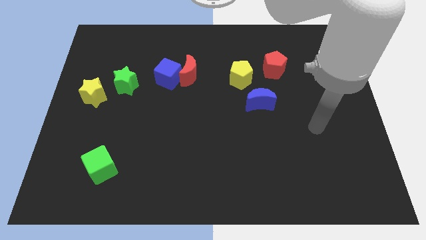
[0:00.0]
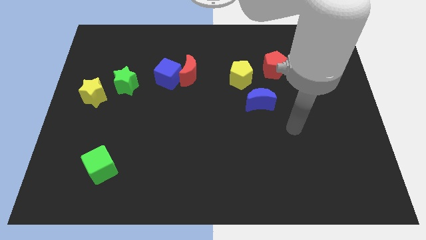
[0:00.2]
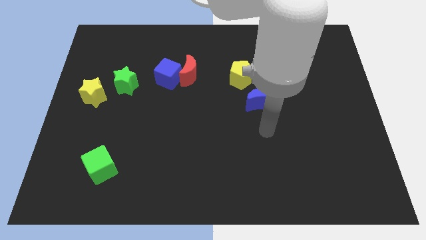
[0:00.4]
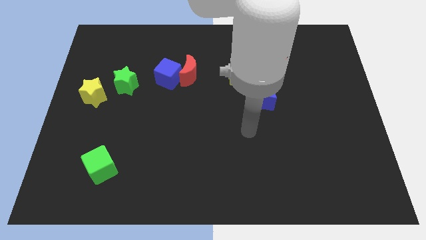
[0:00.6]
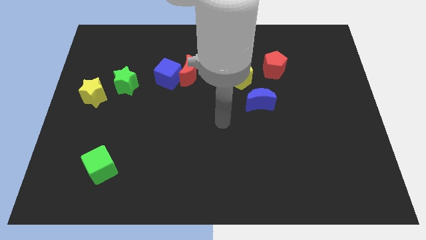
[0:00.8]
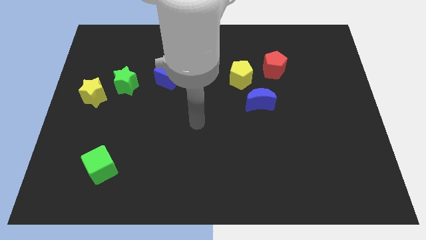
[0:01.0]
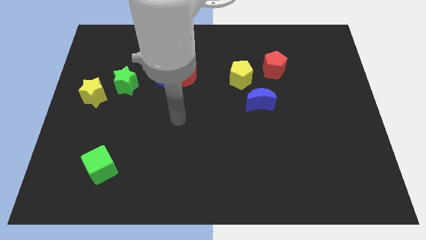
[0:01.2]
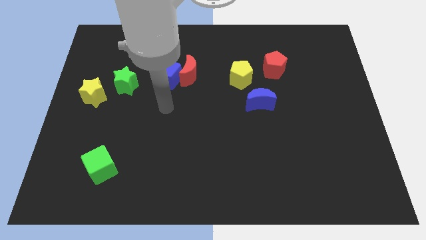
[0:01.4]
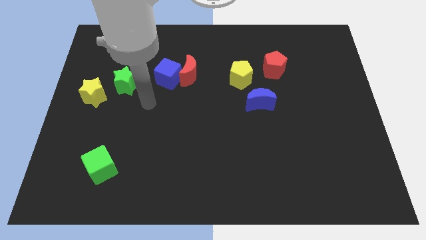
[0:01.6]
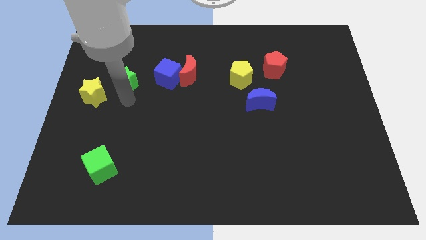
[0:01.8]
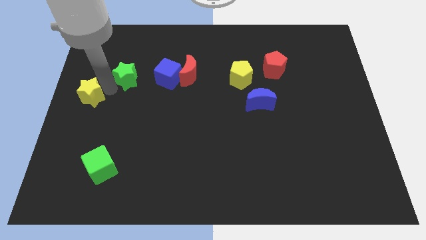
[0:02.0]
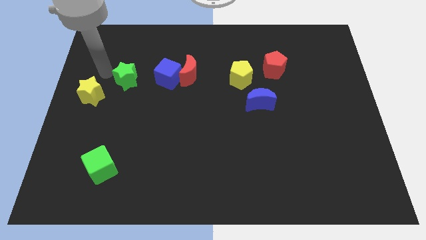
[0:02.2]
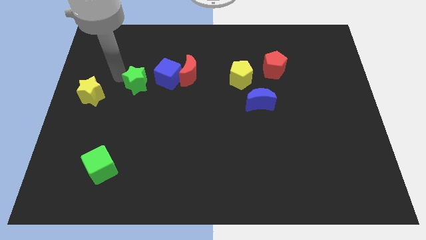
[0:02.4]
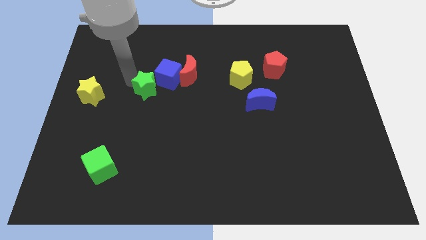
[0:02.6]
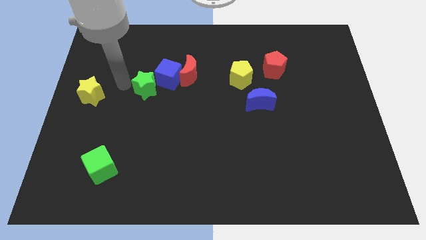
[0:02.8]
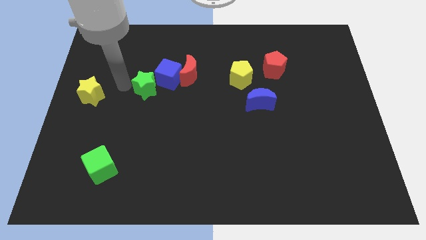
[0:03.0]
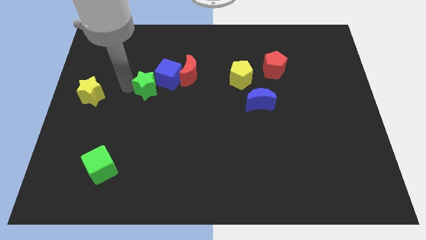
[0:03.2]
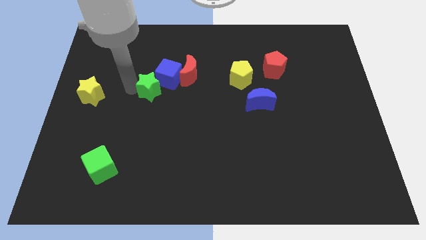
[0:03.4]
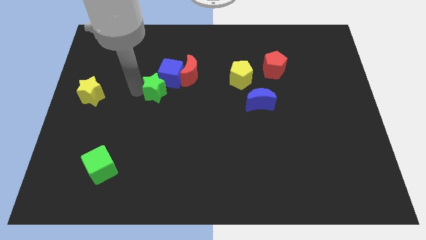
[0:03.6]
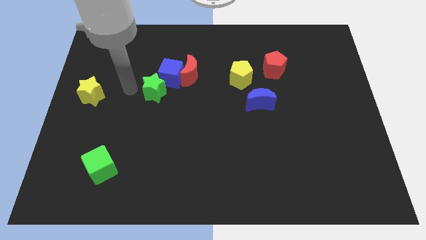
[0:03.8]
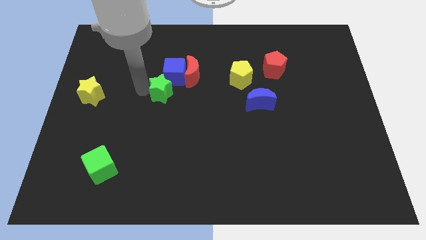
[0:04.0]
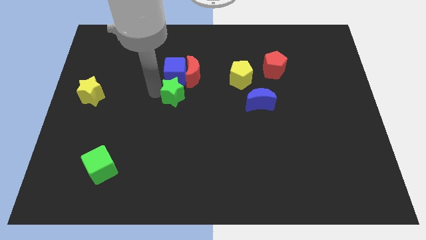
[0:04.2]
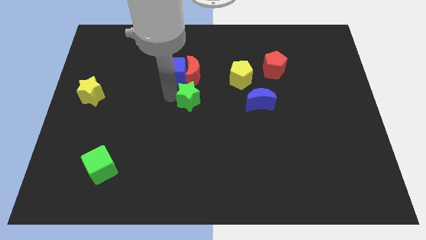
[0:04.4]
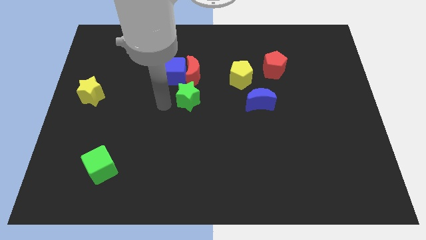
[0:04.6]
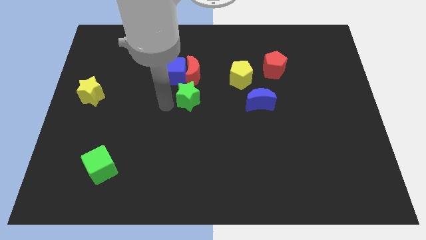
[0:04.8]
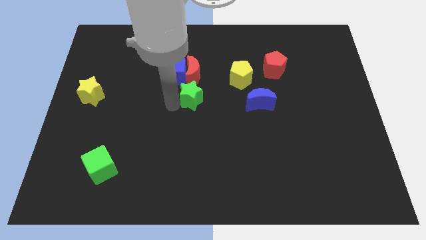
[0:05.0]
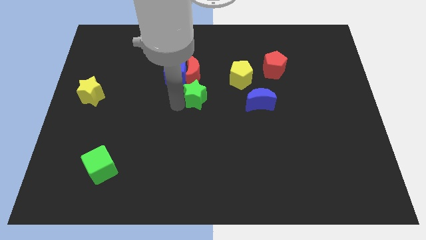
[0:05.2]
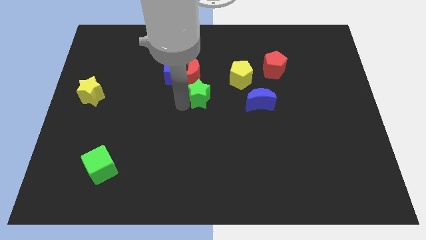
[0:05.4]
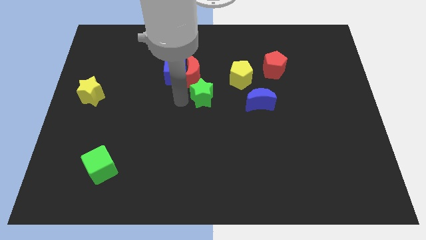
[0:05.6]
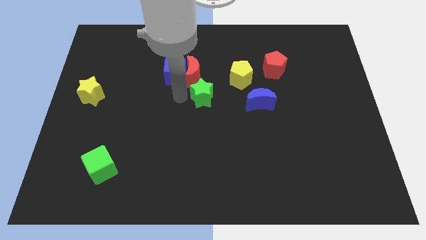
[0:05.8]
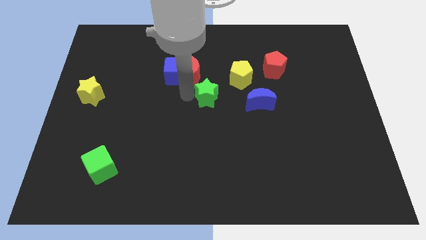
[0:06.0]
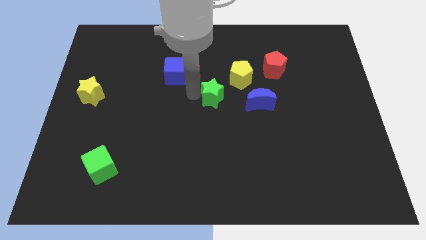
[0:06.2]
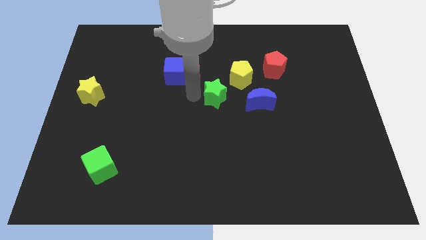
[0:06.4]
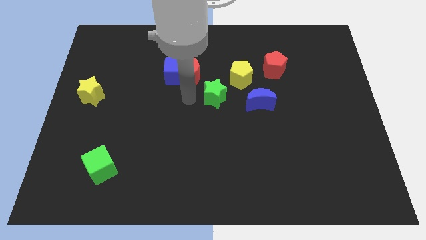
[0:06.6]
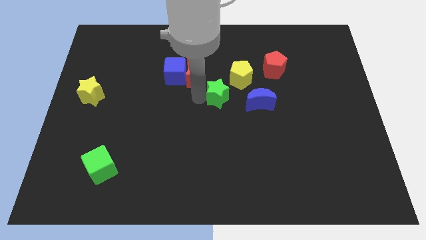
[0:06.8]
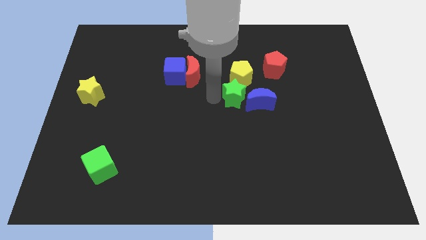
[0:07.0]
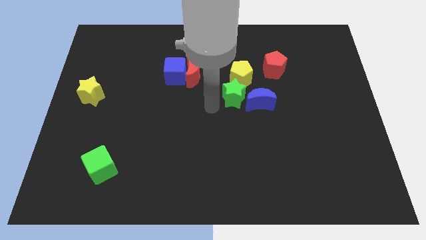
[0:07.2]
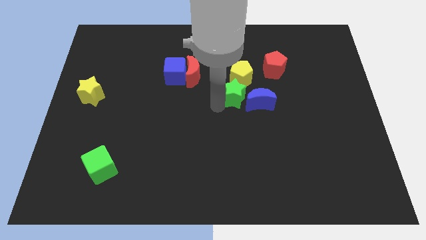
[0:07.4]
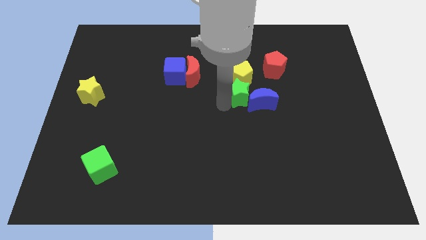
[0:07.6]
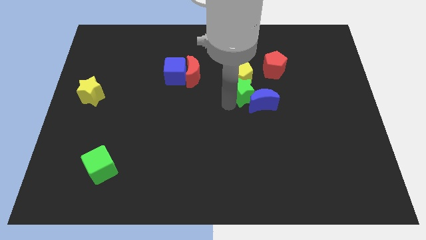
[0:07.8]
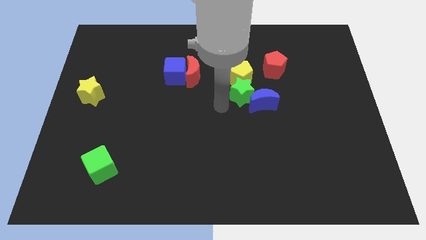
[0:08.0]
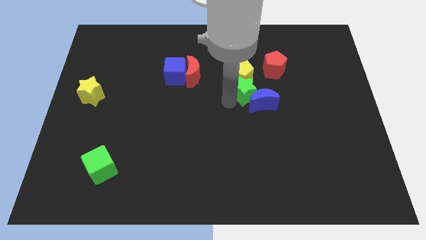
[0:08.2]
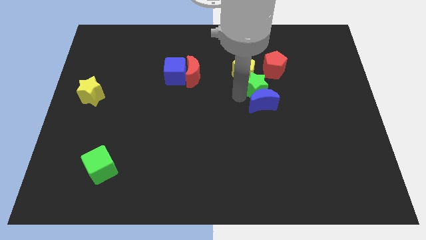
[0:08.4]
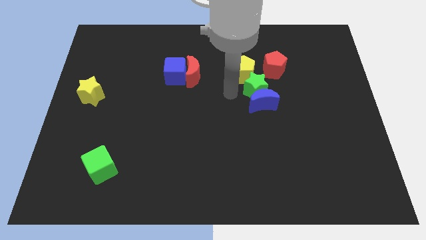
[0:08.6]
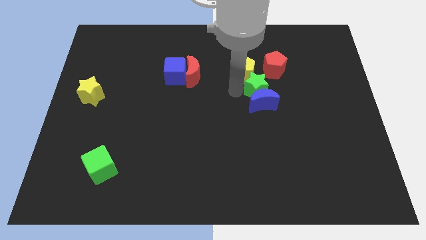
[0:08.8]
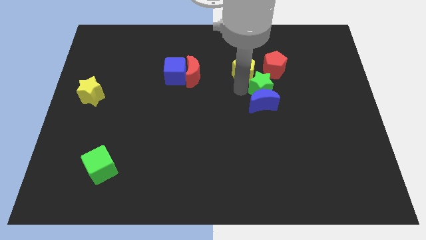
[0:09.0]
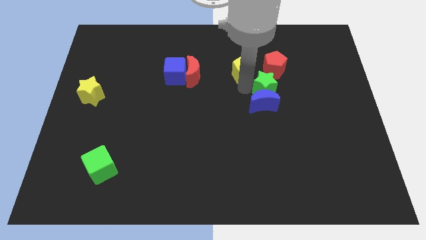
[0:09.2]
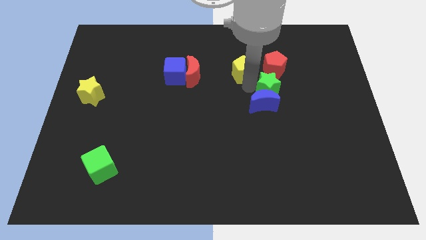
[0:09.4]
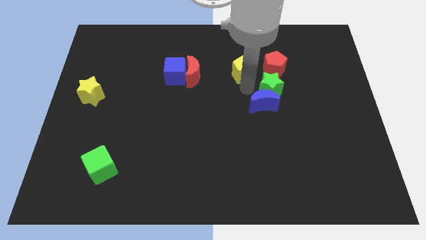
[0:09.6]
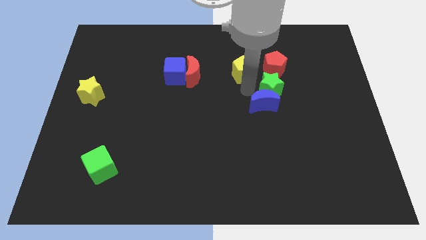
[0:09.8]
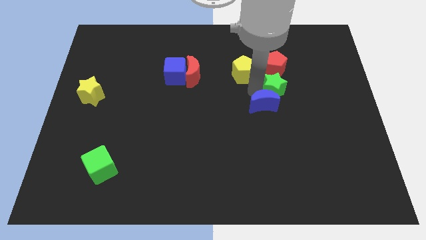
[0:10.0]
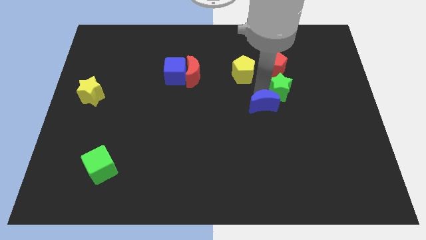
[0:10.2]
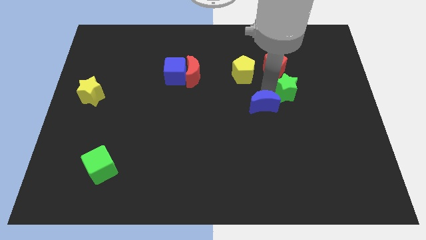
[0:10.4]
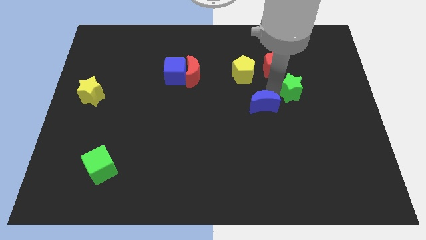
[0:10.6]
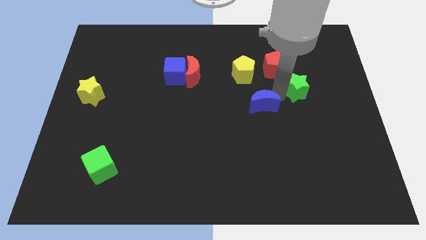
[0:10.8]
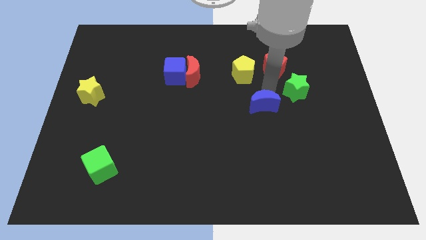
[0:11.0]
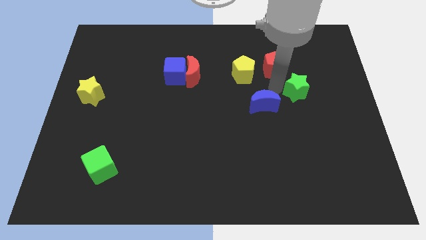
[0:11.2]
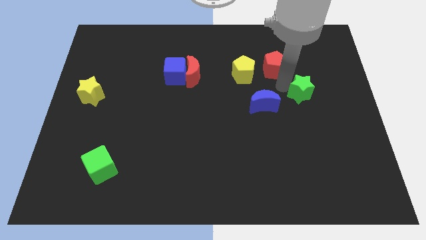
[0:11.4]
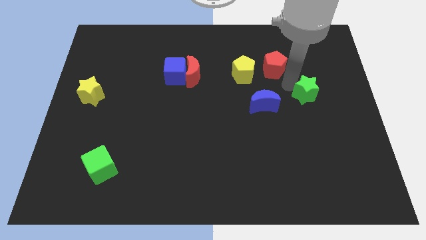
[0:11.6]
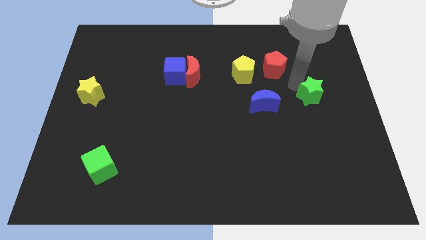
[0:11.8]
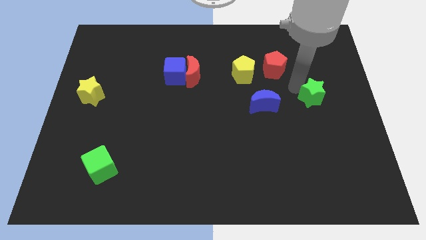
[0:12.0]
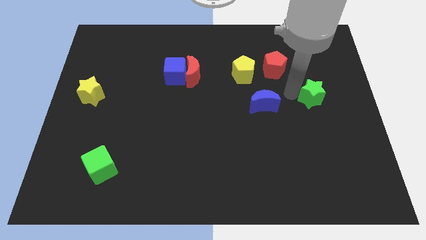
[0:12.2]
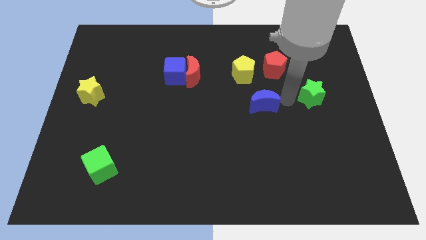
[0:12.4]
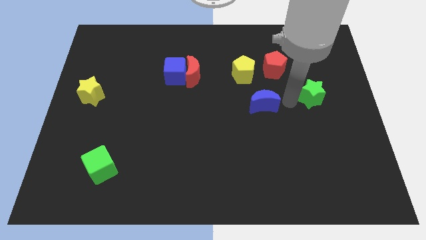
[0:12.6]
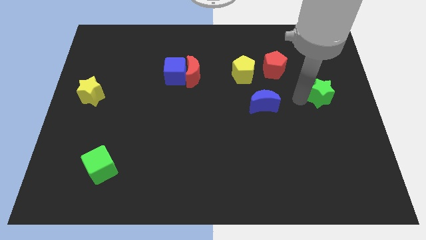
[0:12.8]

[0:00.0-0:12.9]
slide the green star to the right side of the board
